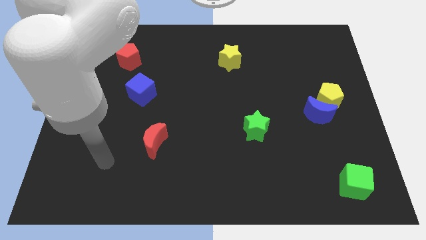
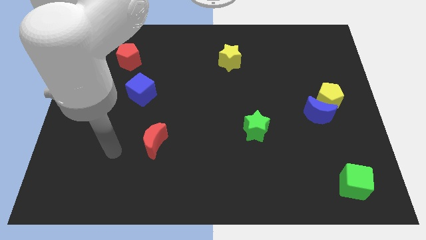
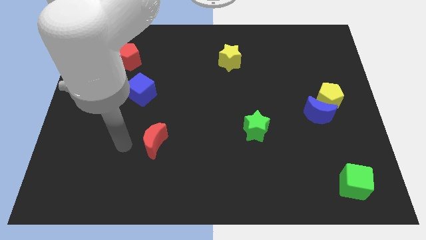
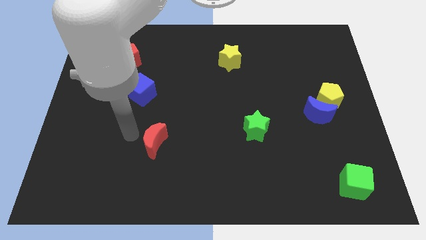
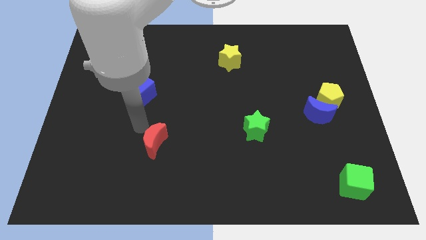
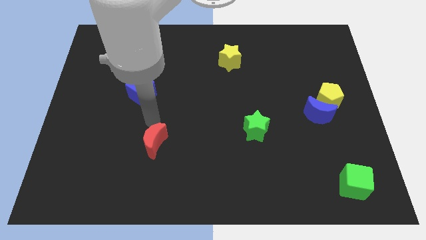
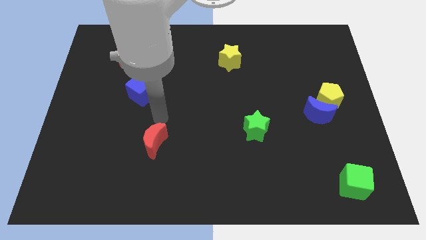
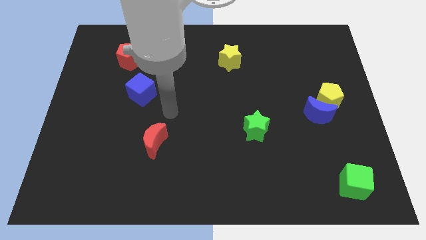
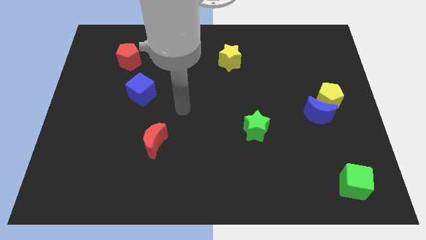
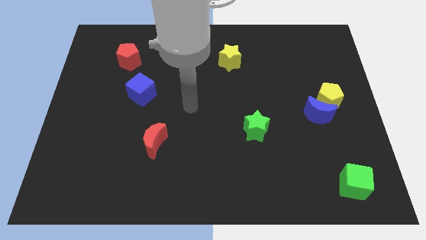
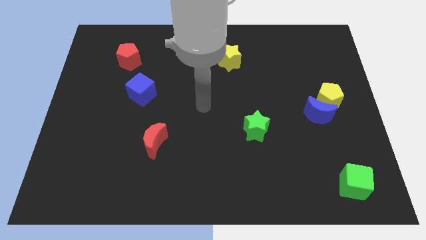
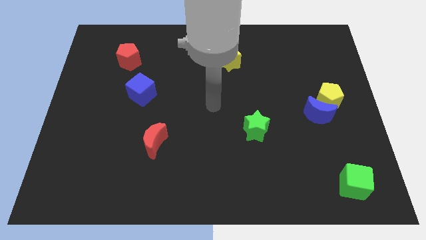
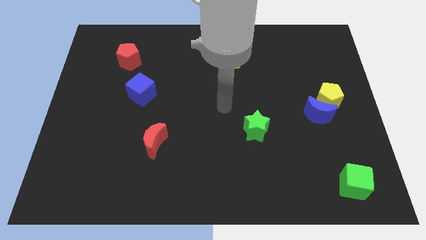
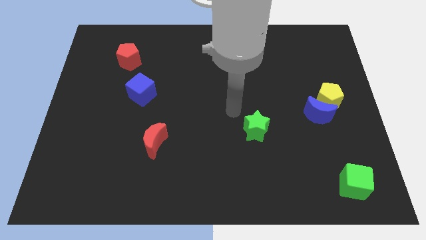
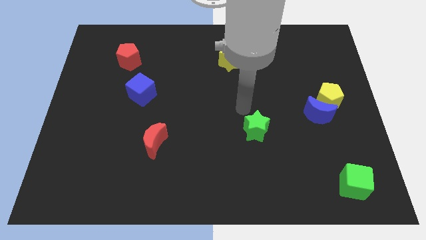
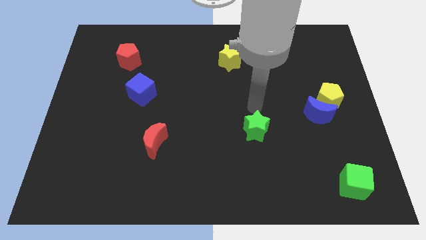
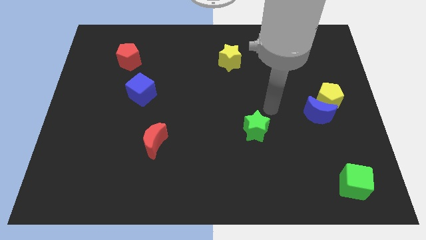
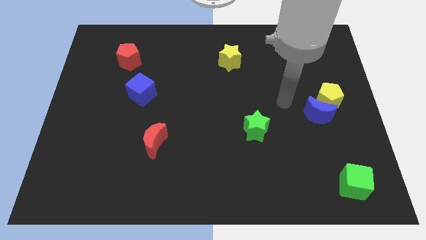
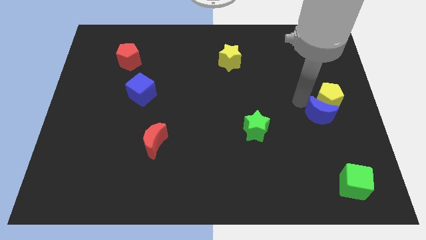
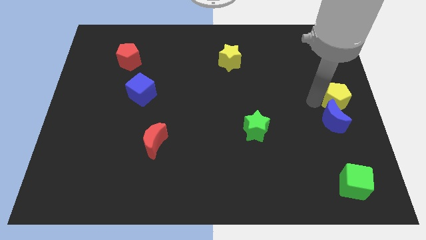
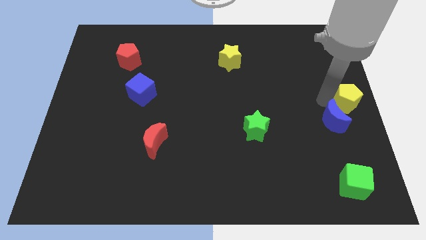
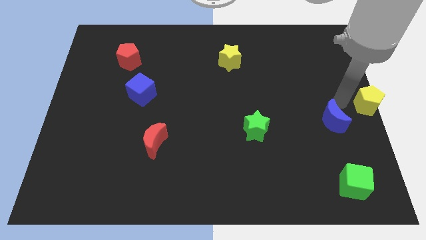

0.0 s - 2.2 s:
pull the blue moon apart from the yellow pentagon

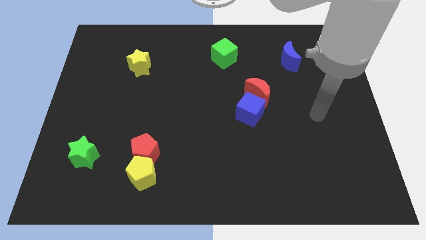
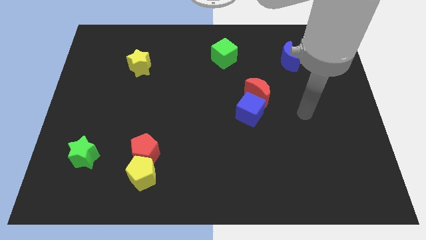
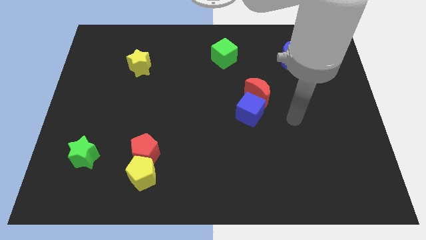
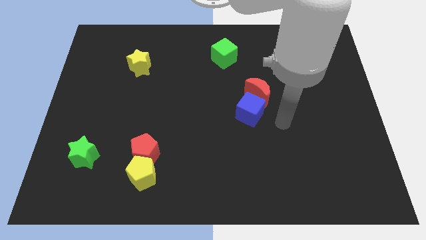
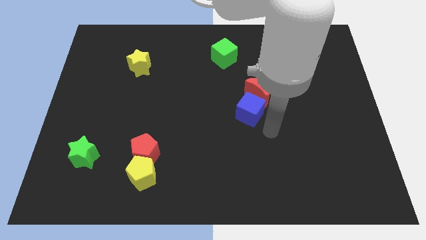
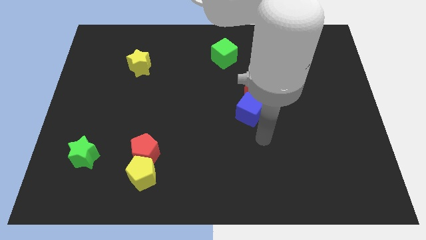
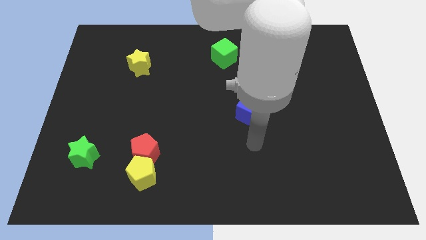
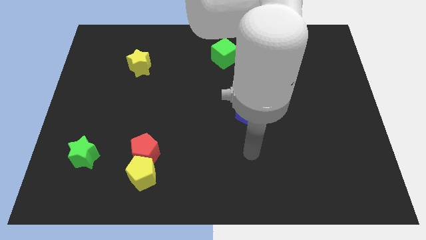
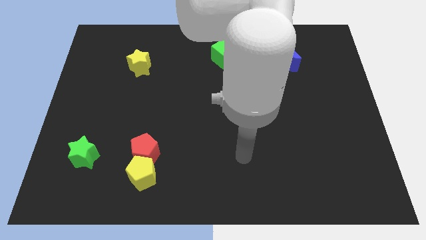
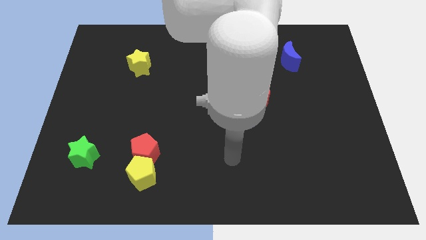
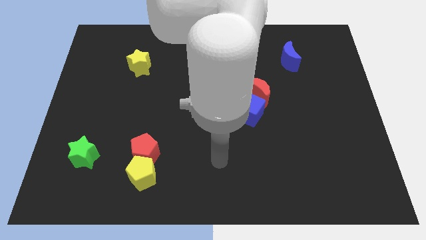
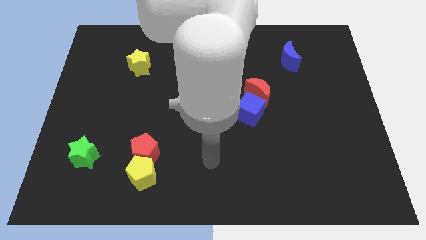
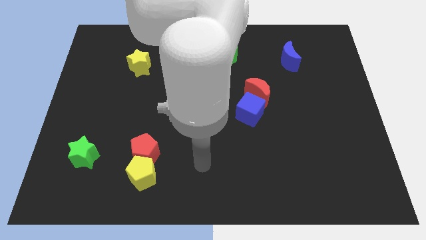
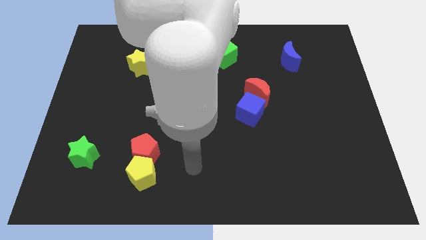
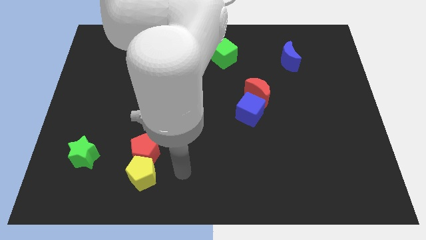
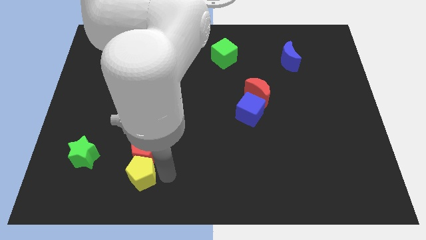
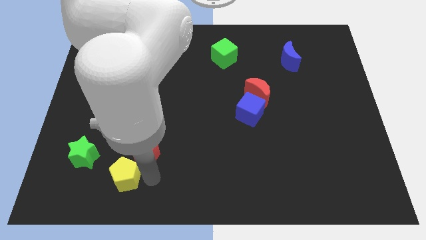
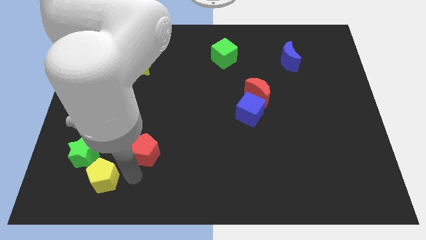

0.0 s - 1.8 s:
move the red pentagon away from the yellow pentagon

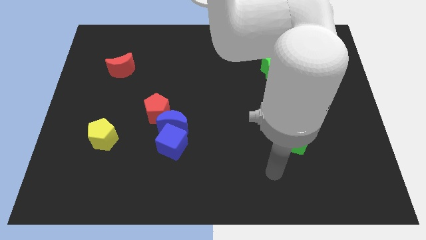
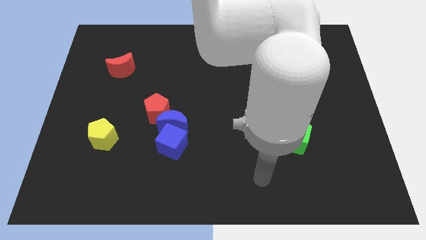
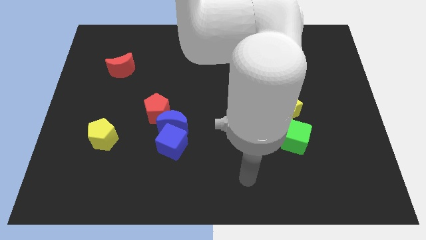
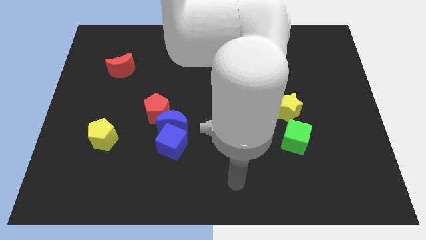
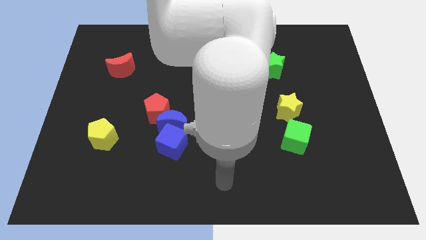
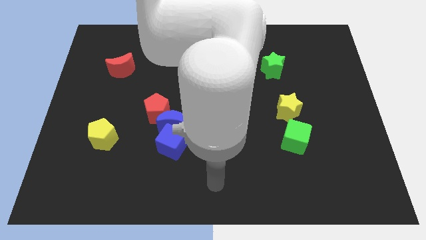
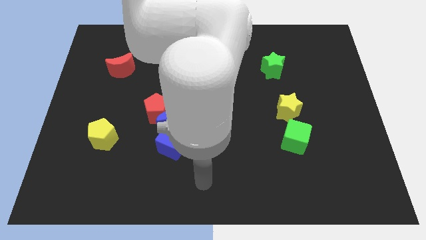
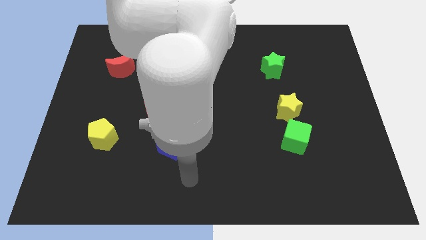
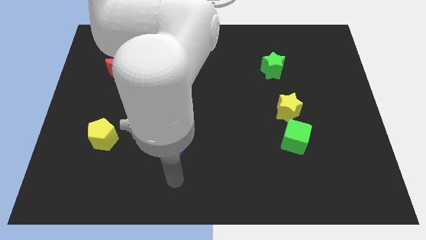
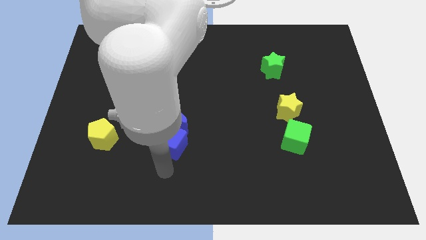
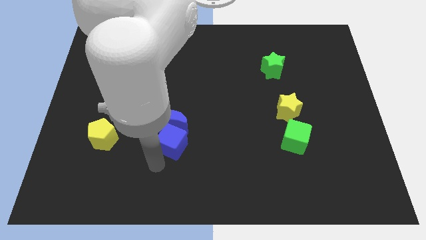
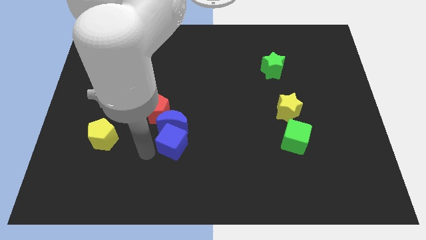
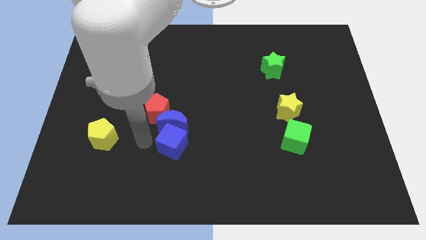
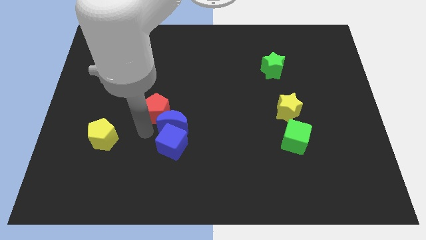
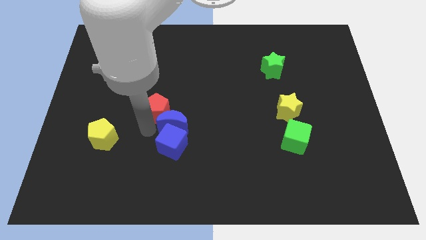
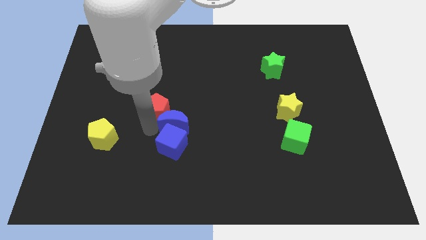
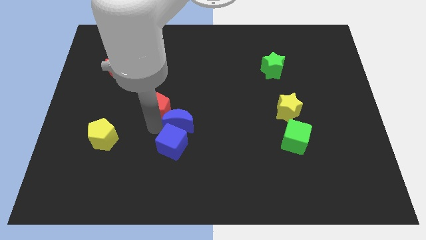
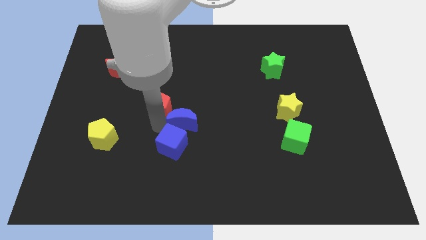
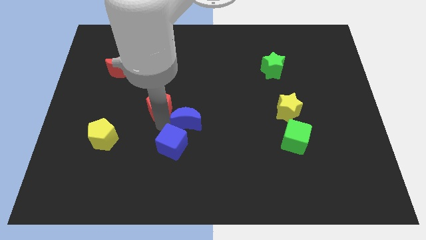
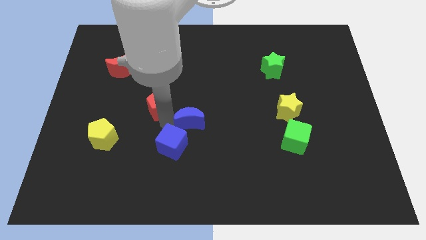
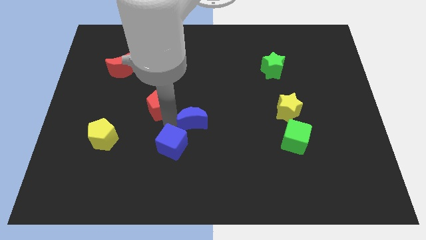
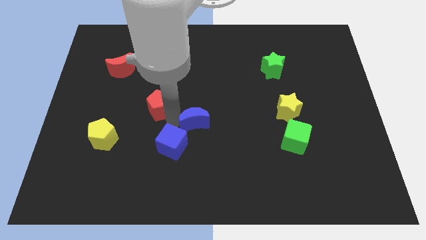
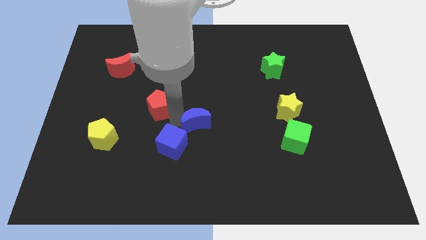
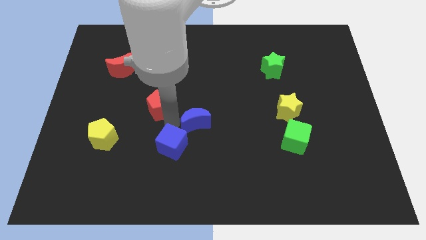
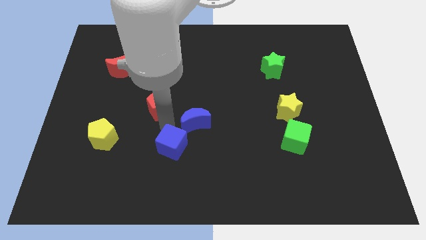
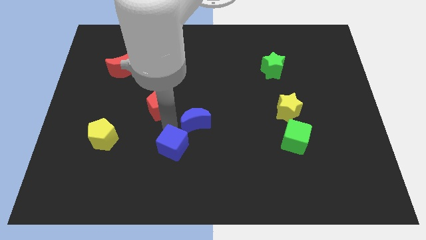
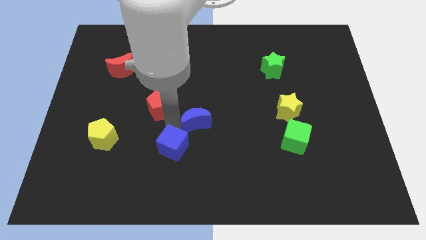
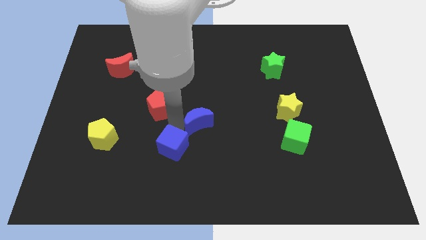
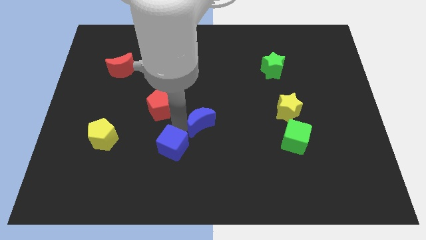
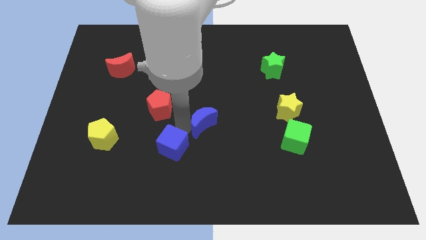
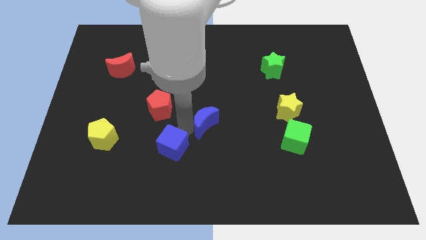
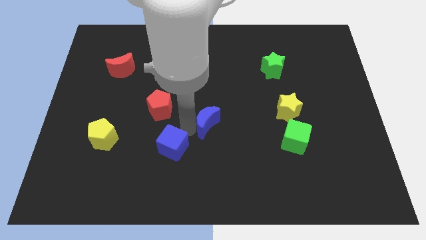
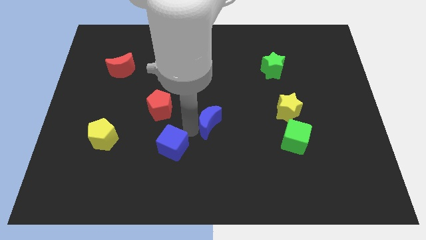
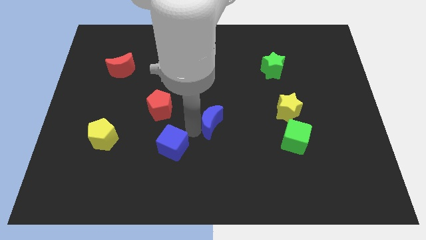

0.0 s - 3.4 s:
pull the blue moon apart from the blue cube and red pentagon

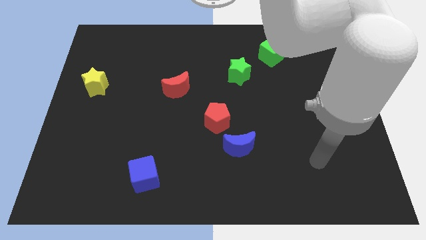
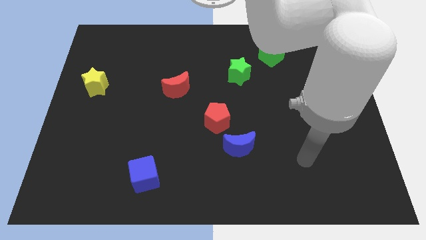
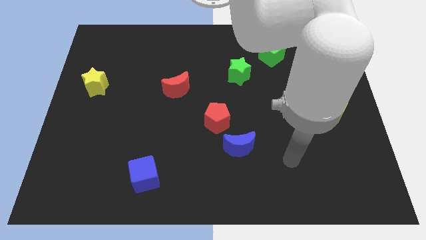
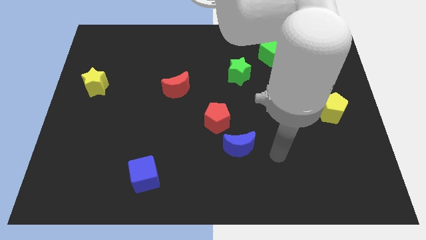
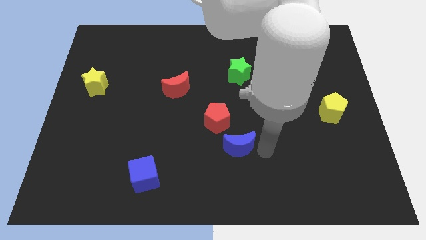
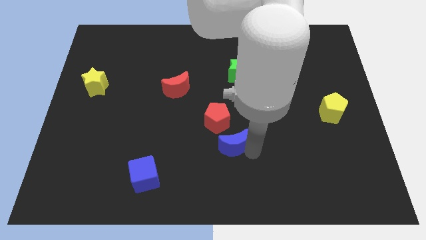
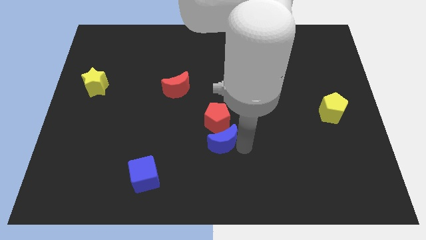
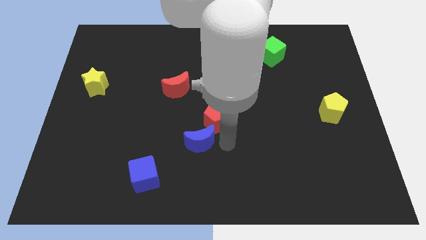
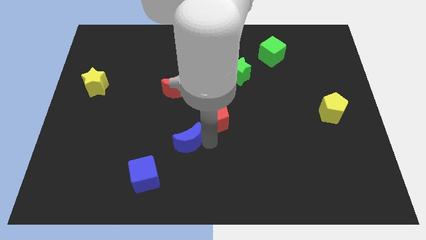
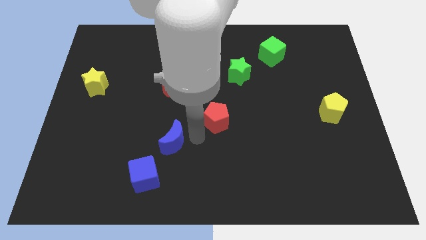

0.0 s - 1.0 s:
pull the red pentagon apart from the blue moon

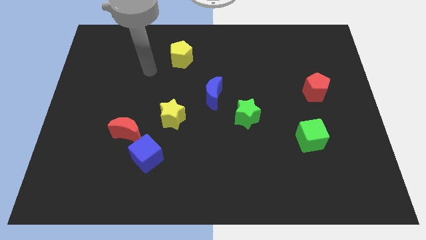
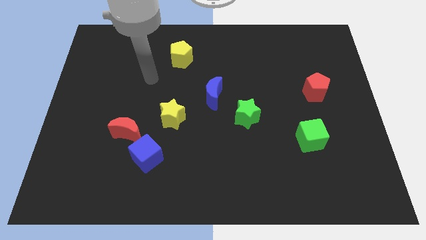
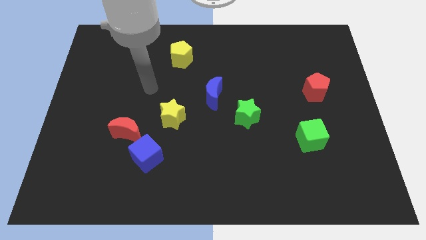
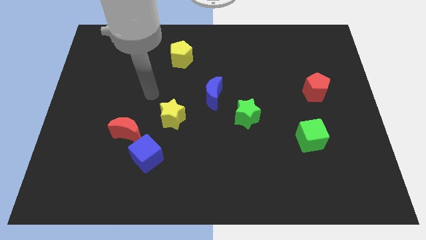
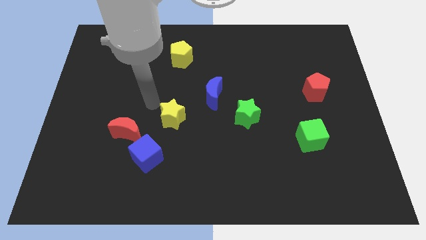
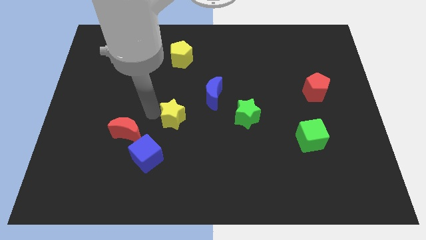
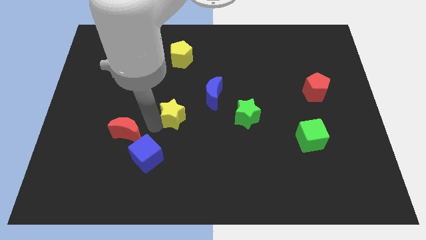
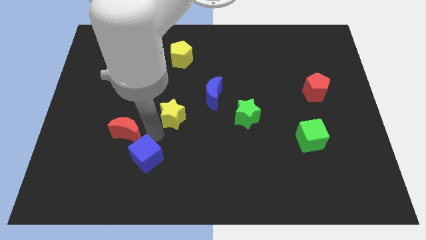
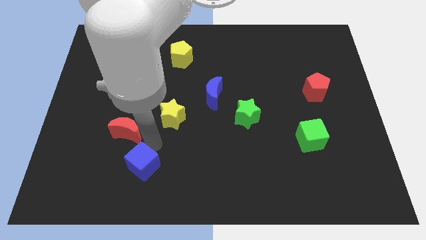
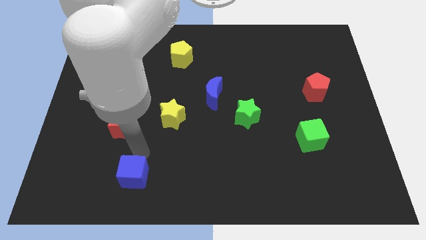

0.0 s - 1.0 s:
pull the red moon apart from the blue cube
